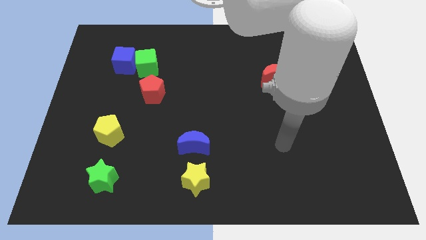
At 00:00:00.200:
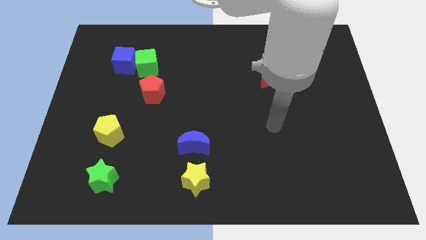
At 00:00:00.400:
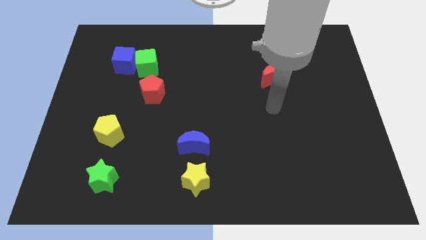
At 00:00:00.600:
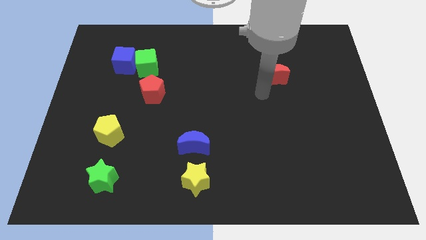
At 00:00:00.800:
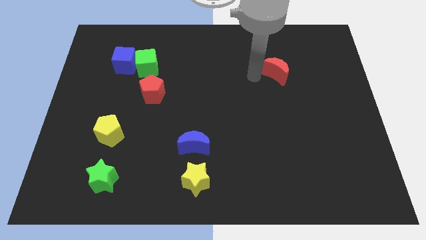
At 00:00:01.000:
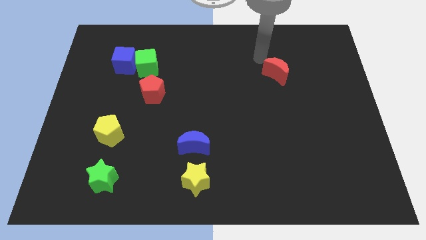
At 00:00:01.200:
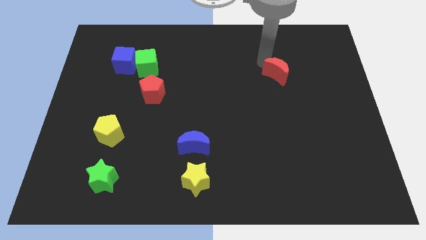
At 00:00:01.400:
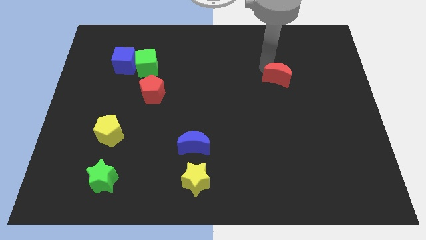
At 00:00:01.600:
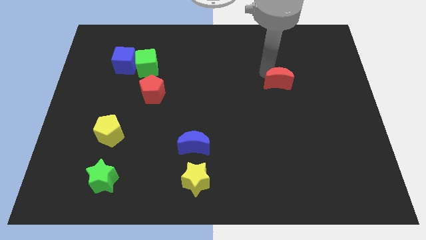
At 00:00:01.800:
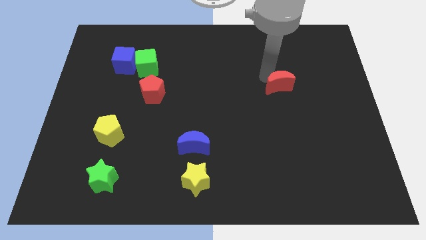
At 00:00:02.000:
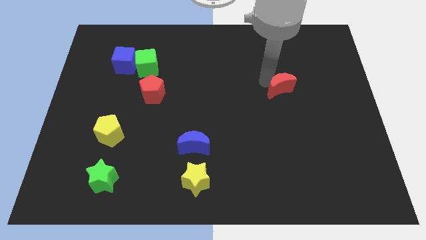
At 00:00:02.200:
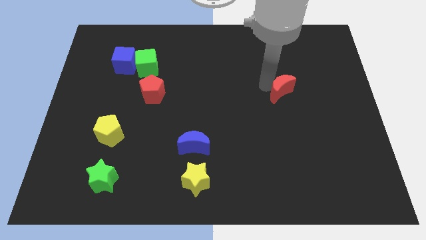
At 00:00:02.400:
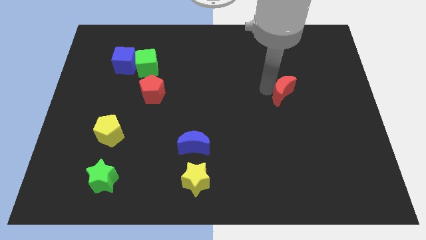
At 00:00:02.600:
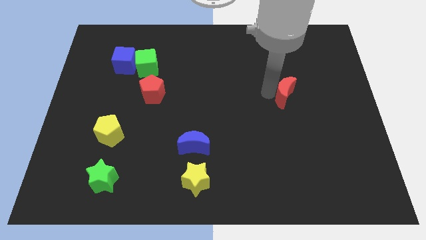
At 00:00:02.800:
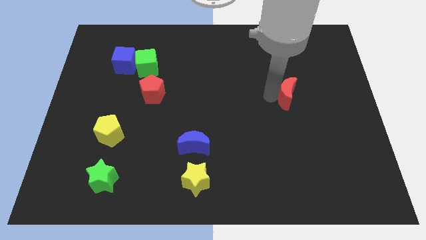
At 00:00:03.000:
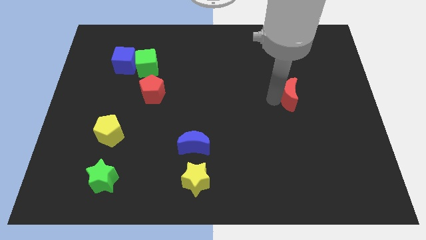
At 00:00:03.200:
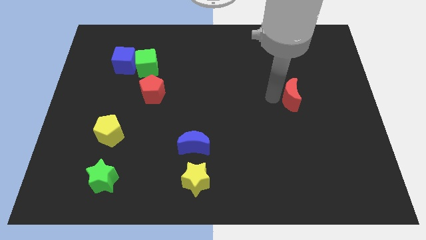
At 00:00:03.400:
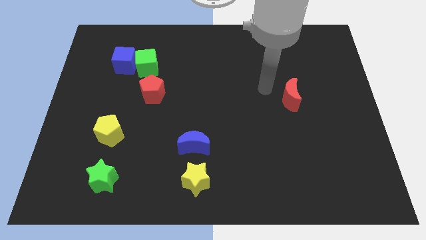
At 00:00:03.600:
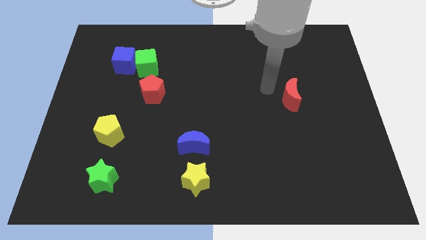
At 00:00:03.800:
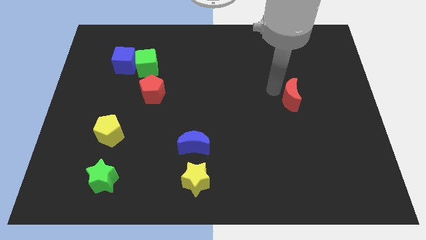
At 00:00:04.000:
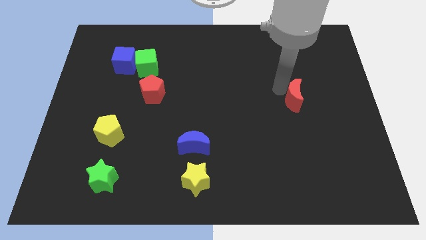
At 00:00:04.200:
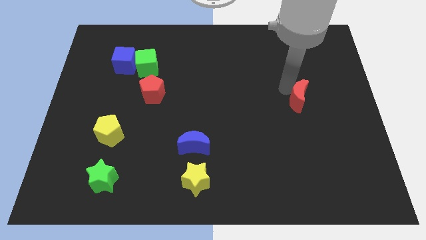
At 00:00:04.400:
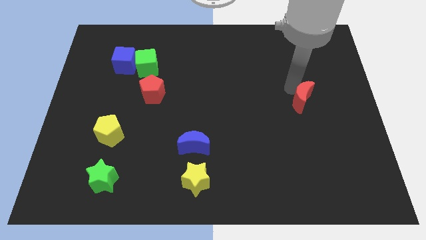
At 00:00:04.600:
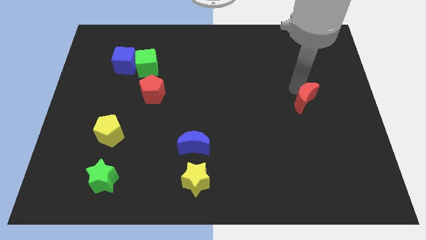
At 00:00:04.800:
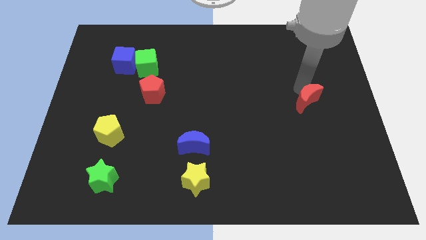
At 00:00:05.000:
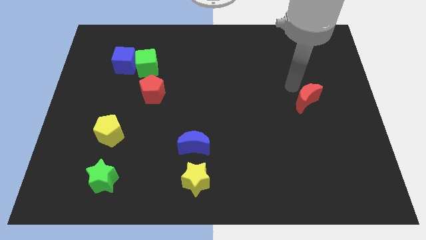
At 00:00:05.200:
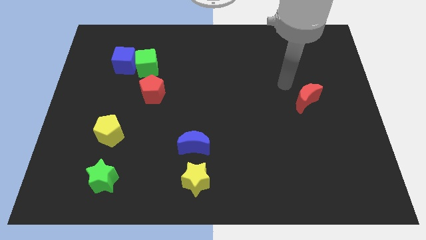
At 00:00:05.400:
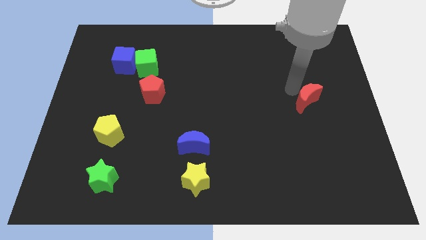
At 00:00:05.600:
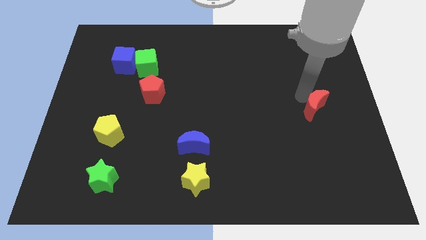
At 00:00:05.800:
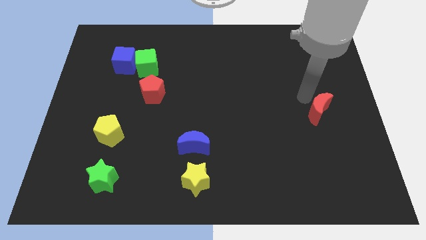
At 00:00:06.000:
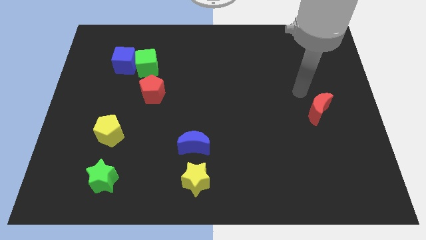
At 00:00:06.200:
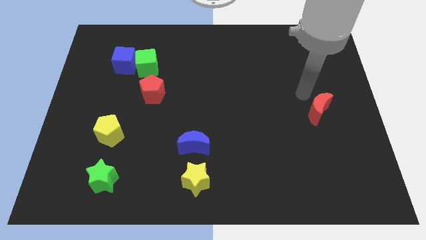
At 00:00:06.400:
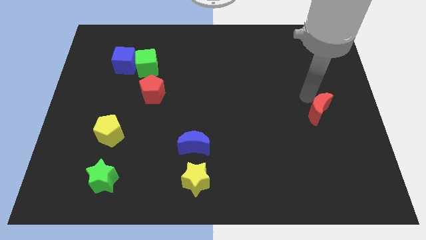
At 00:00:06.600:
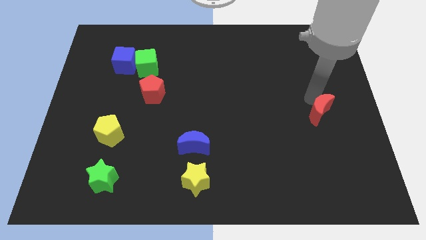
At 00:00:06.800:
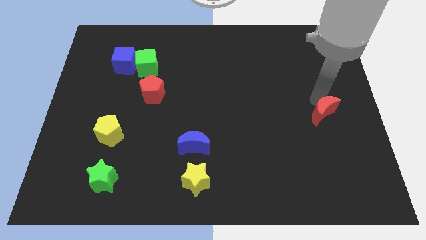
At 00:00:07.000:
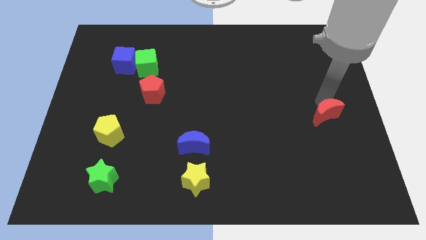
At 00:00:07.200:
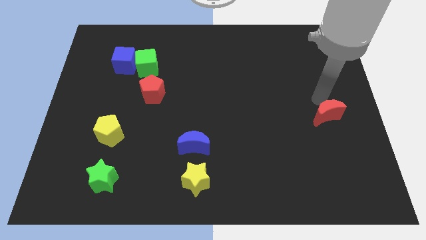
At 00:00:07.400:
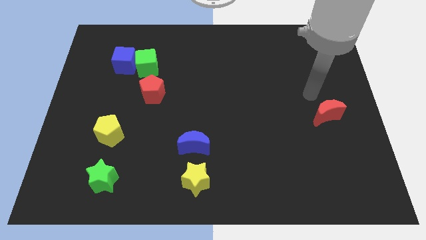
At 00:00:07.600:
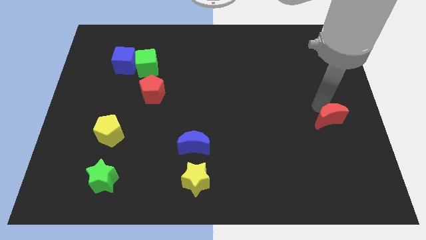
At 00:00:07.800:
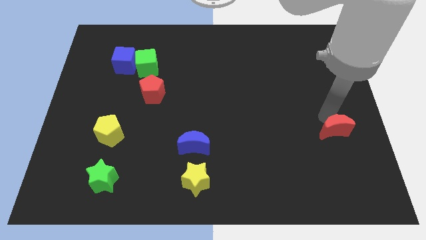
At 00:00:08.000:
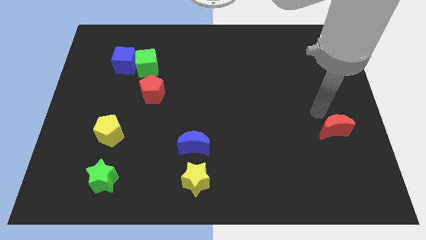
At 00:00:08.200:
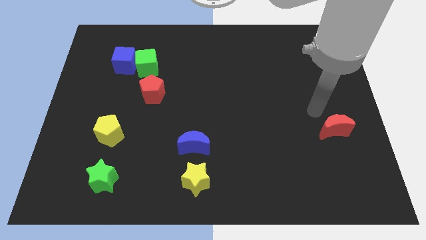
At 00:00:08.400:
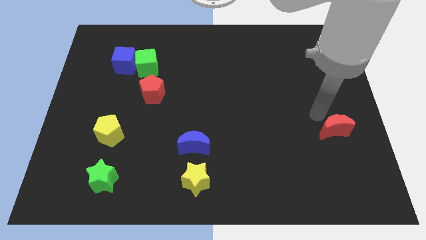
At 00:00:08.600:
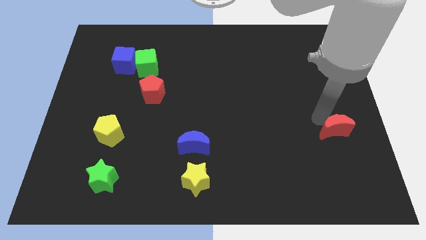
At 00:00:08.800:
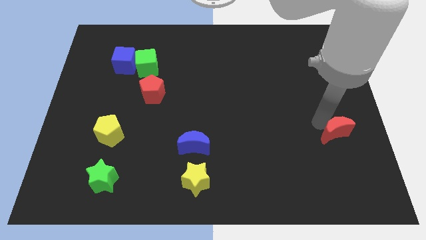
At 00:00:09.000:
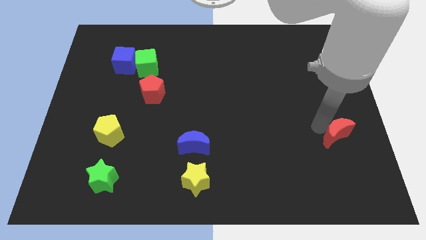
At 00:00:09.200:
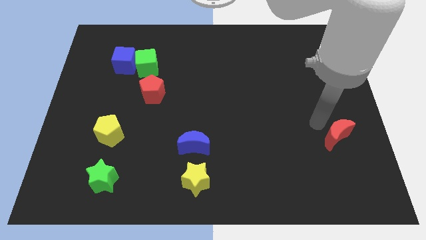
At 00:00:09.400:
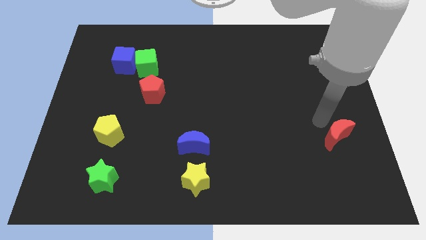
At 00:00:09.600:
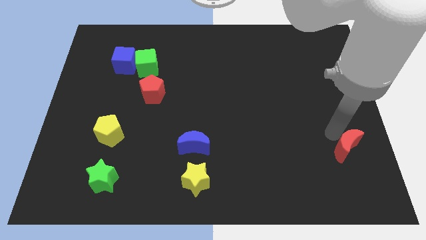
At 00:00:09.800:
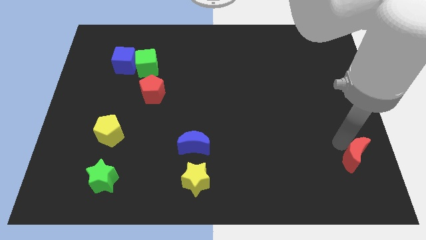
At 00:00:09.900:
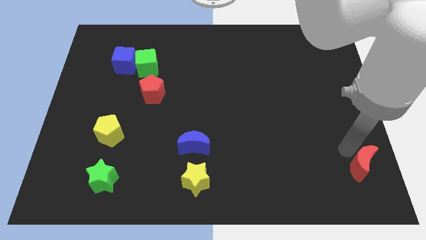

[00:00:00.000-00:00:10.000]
put the red moon to the bottom right corner
